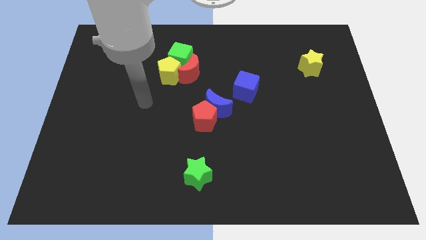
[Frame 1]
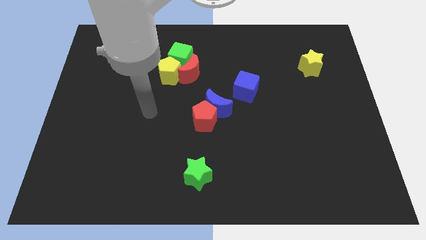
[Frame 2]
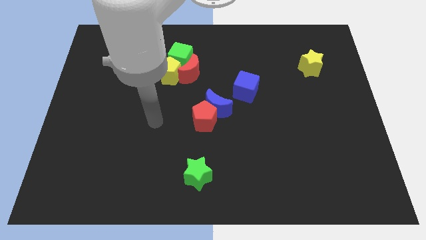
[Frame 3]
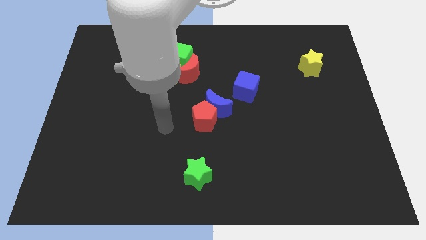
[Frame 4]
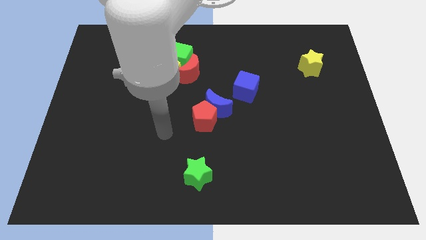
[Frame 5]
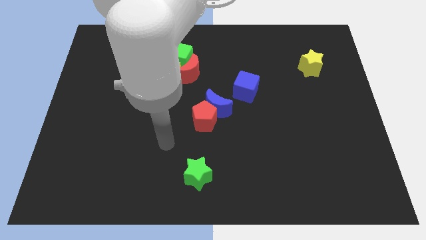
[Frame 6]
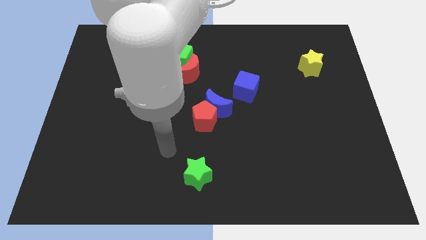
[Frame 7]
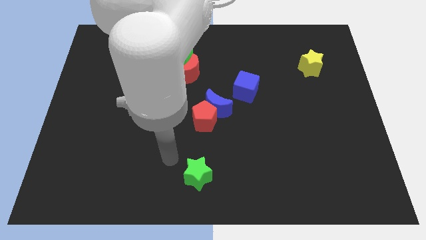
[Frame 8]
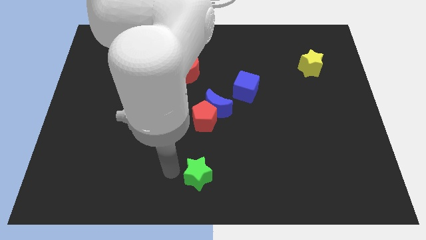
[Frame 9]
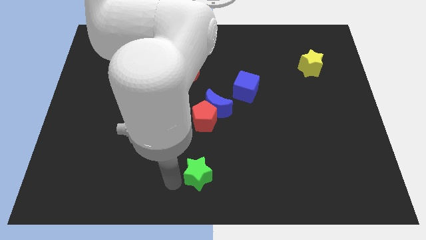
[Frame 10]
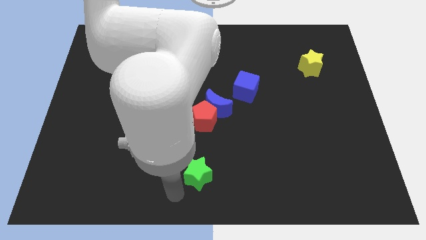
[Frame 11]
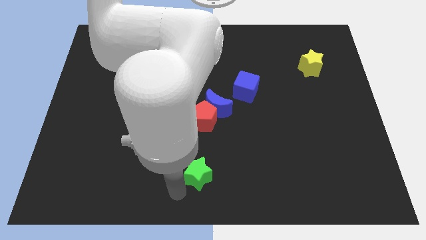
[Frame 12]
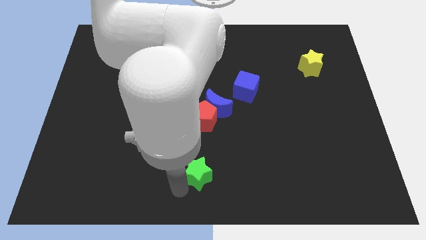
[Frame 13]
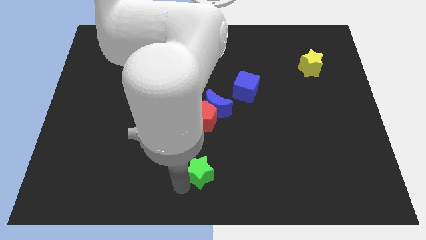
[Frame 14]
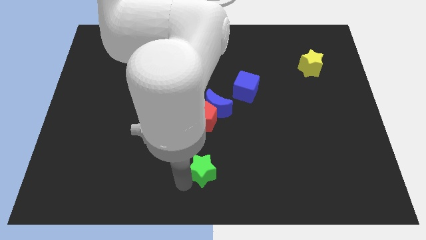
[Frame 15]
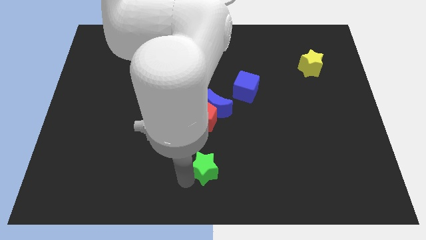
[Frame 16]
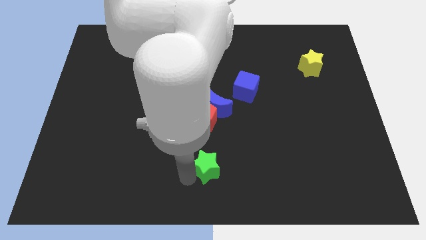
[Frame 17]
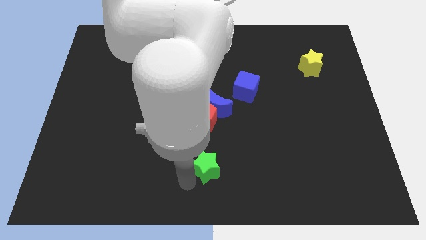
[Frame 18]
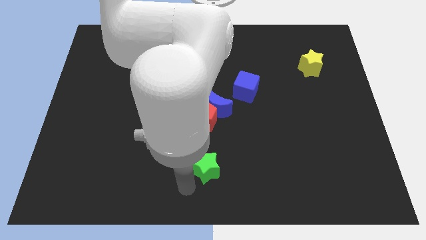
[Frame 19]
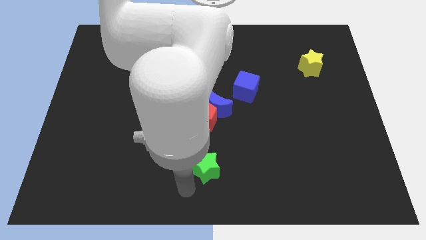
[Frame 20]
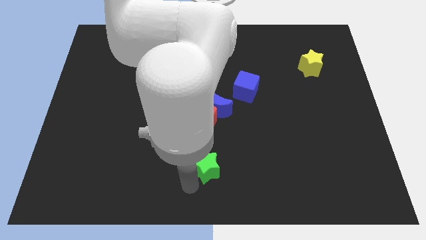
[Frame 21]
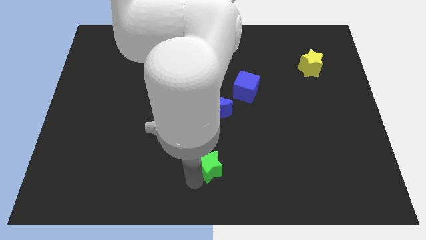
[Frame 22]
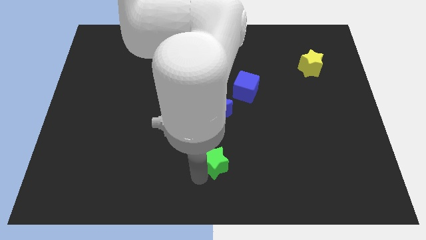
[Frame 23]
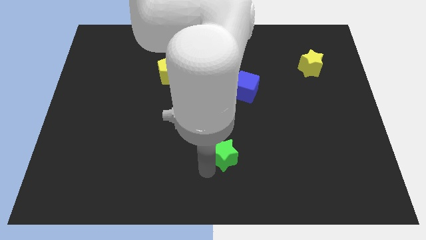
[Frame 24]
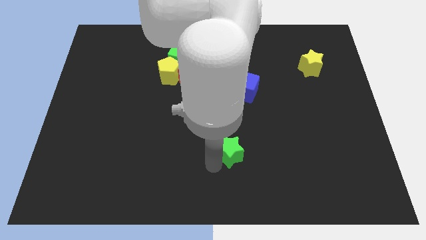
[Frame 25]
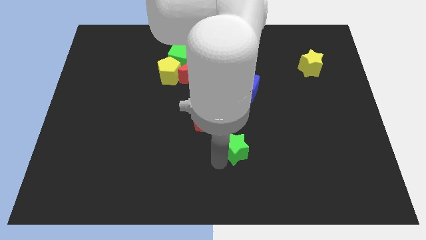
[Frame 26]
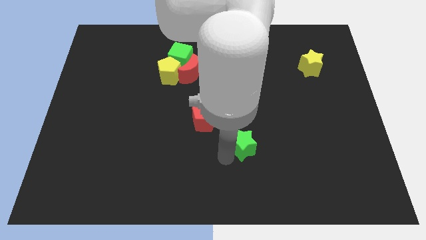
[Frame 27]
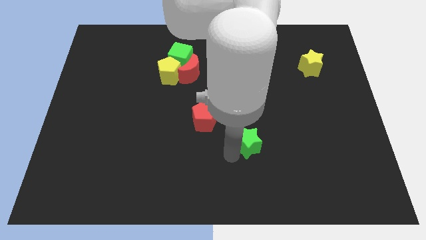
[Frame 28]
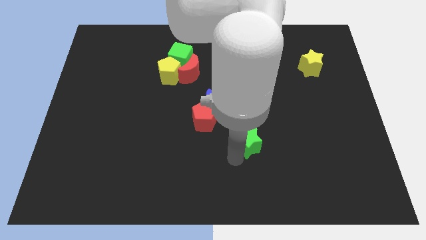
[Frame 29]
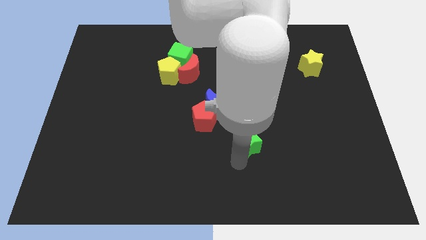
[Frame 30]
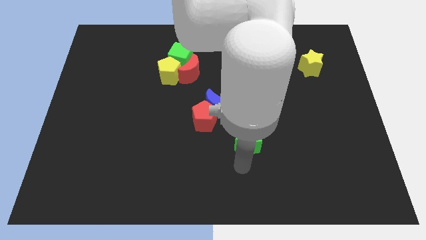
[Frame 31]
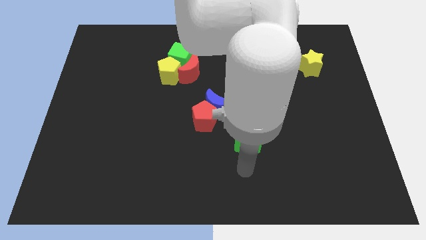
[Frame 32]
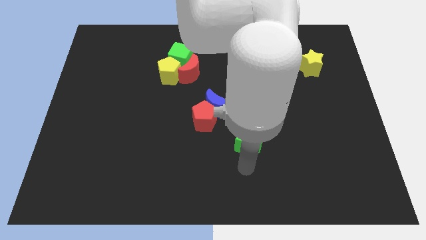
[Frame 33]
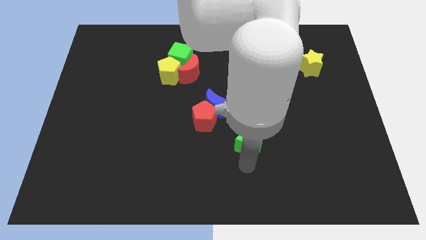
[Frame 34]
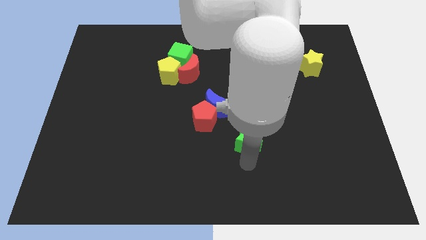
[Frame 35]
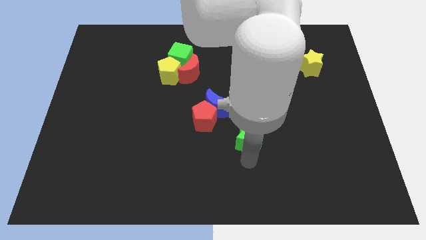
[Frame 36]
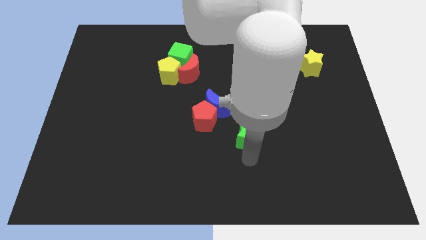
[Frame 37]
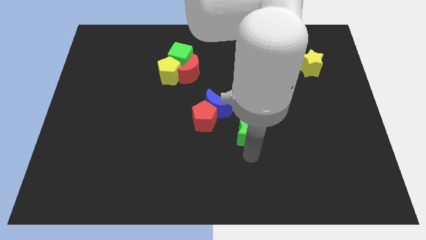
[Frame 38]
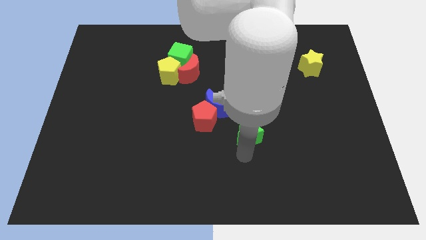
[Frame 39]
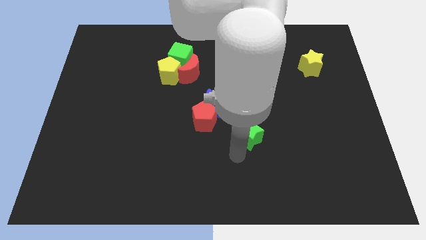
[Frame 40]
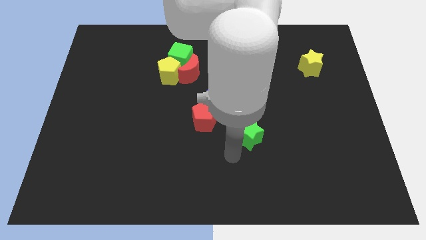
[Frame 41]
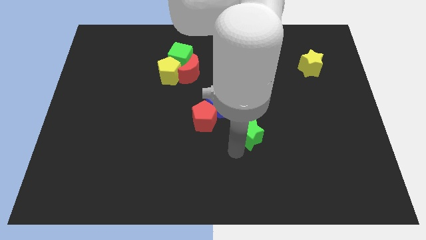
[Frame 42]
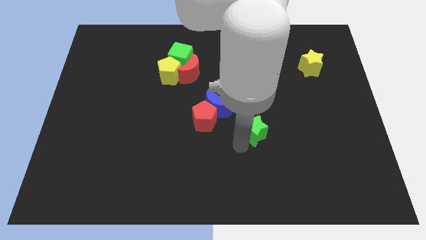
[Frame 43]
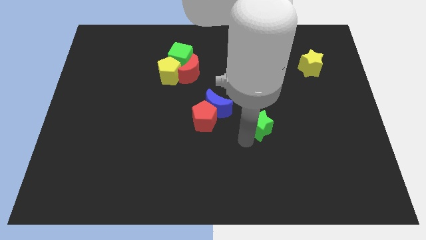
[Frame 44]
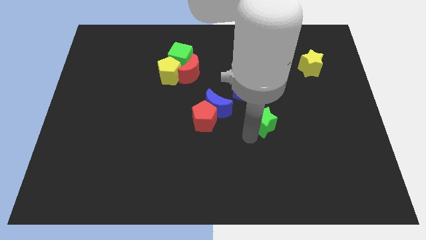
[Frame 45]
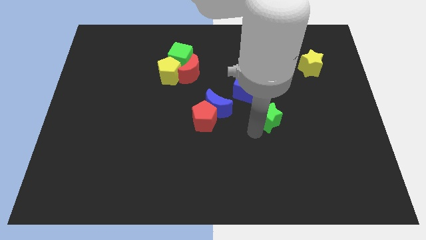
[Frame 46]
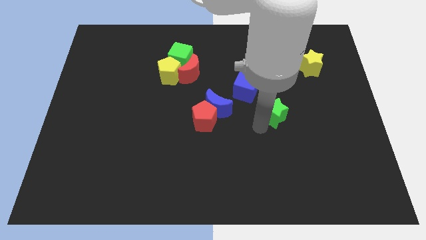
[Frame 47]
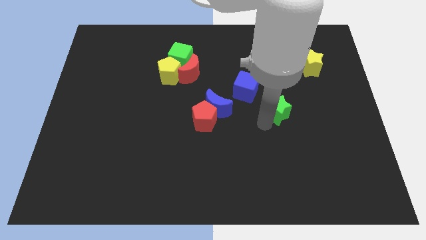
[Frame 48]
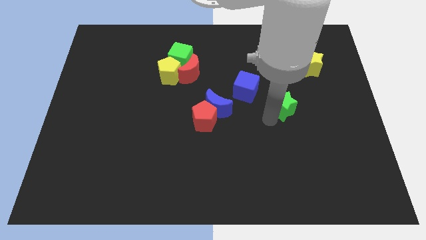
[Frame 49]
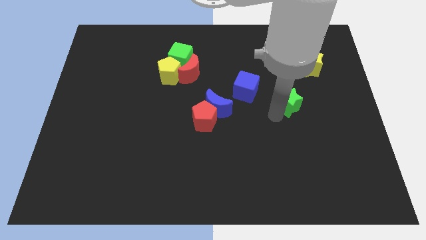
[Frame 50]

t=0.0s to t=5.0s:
slide the green star to the right side of the blue cube

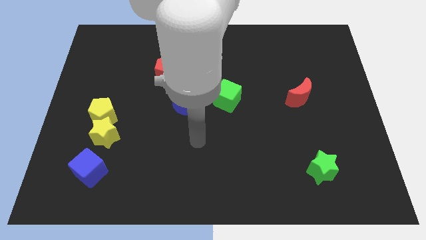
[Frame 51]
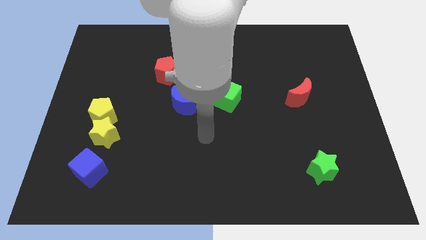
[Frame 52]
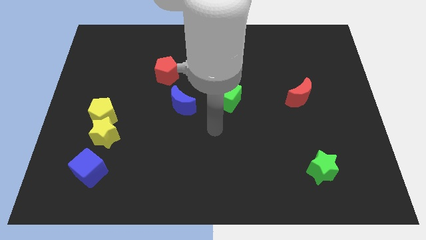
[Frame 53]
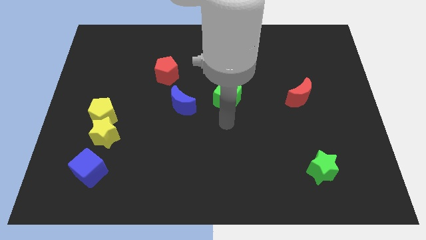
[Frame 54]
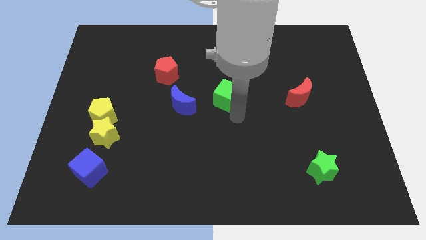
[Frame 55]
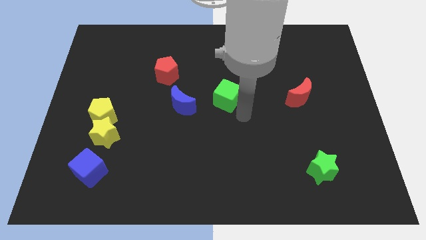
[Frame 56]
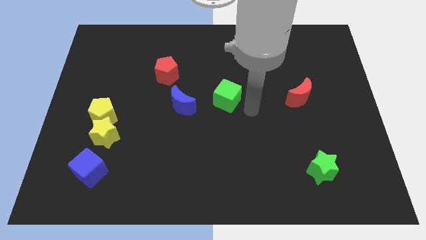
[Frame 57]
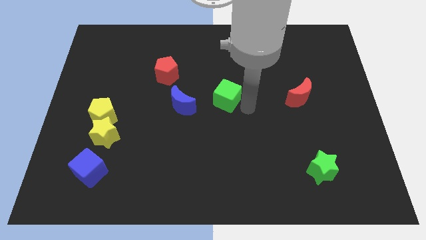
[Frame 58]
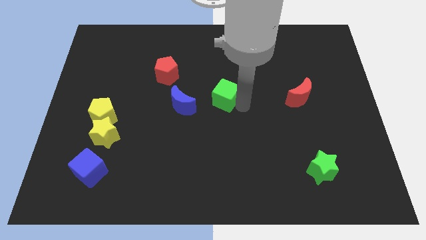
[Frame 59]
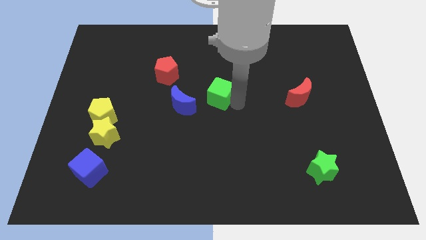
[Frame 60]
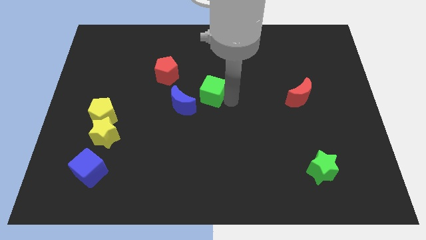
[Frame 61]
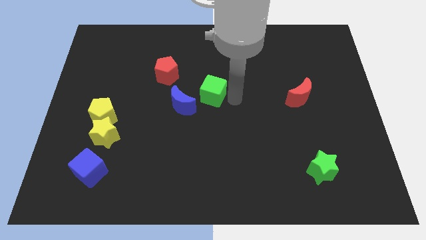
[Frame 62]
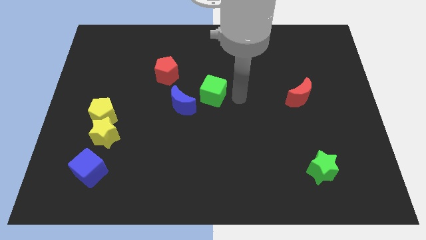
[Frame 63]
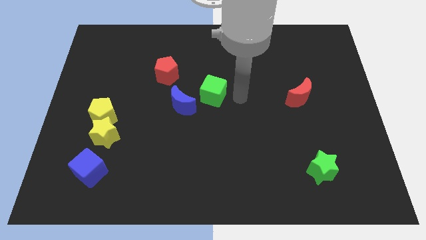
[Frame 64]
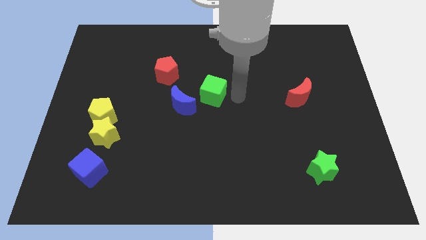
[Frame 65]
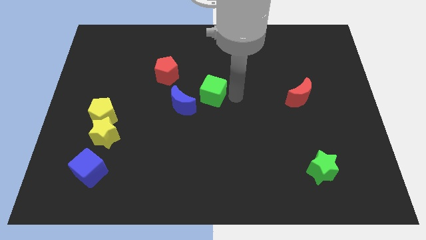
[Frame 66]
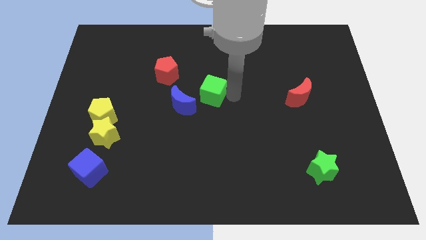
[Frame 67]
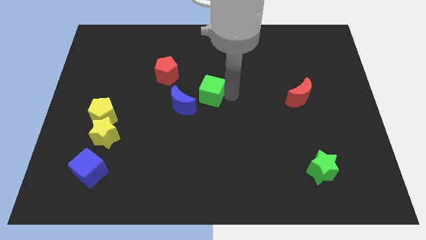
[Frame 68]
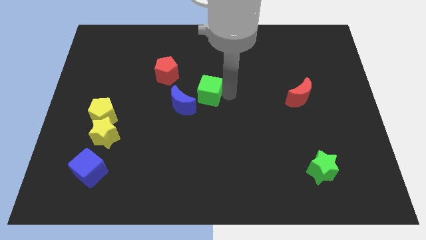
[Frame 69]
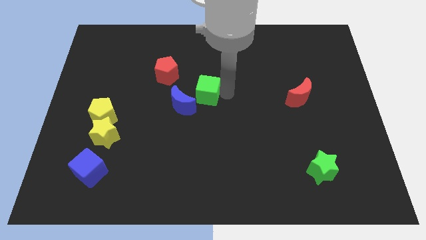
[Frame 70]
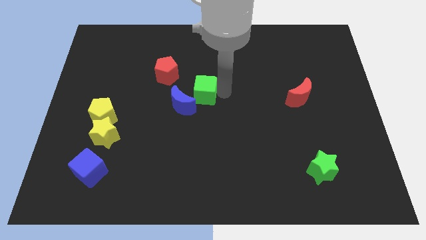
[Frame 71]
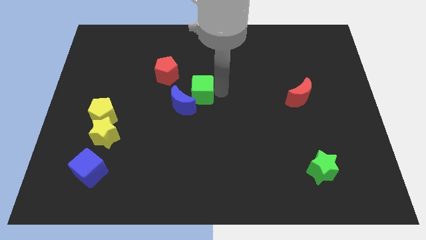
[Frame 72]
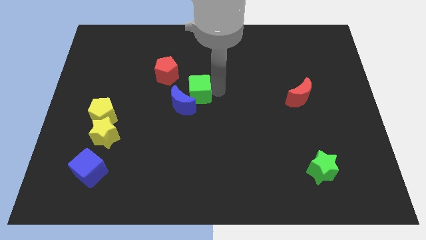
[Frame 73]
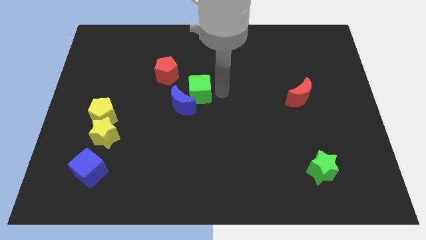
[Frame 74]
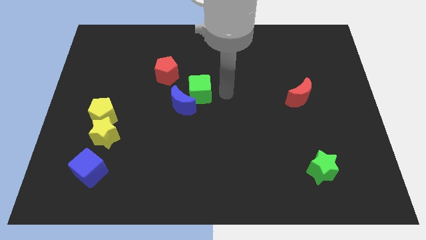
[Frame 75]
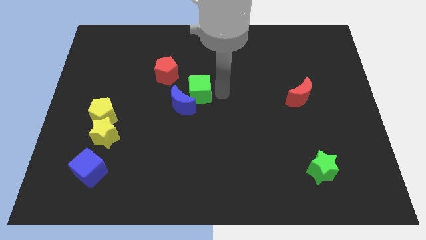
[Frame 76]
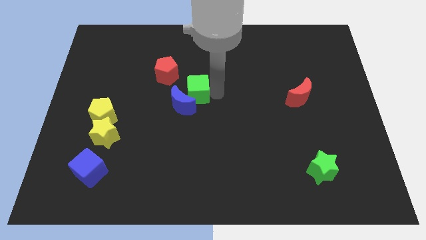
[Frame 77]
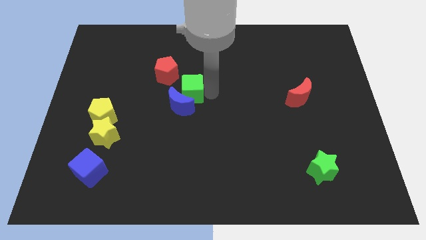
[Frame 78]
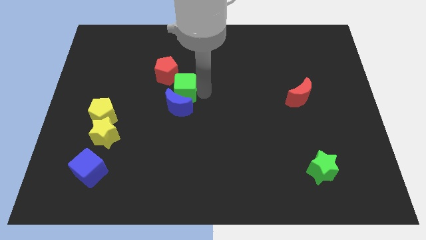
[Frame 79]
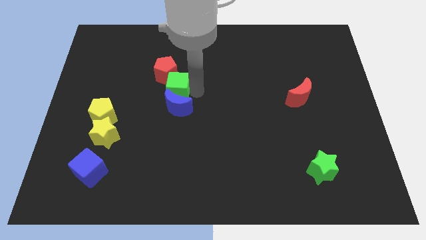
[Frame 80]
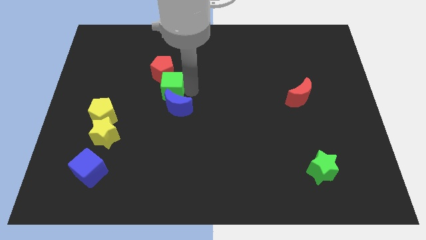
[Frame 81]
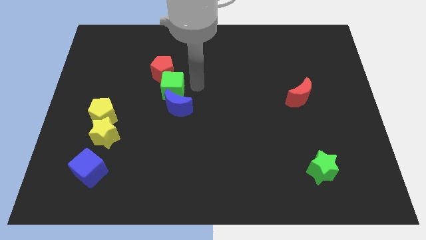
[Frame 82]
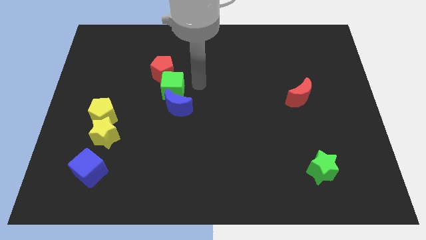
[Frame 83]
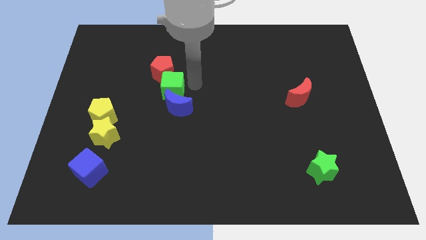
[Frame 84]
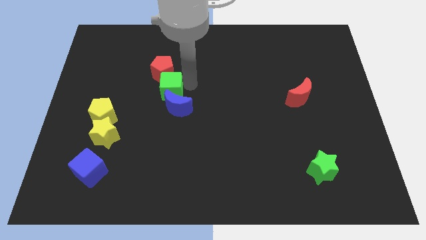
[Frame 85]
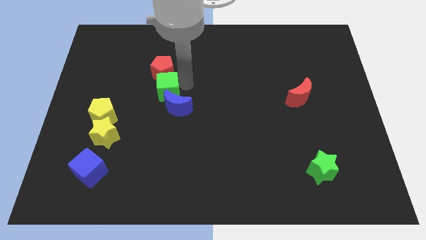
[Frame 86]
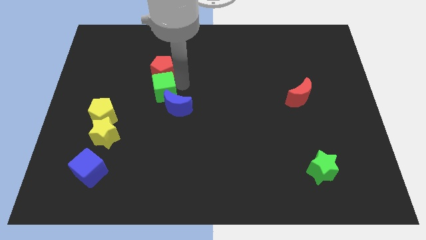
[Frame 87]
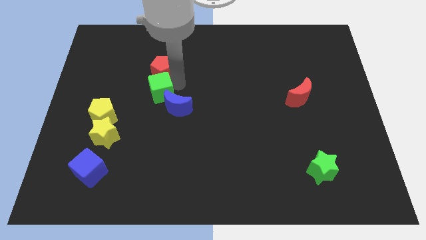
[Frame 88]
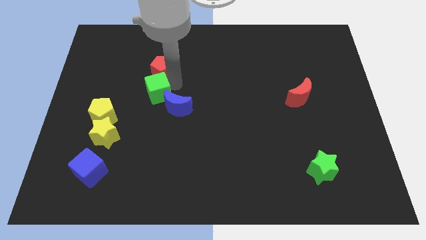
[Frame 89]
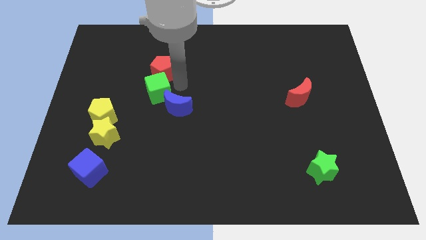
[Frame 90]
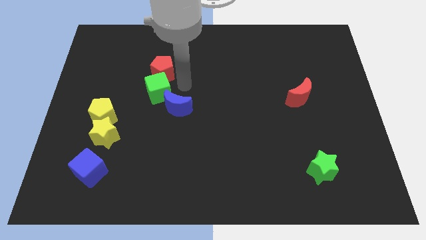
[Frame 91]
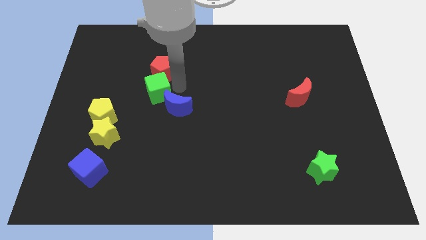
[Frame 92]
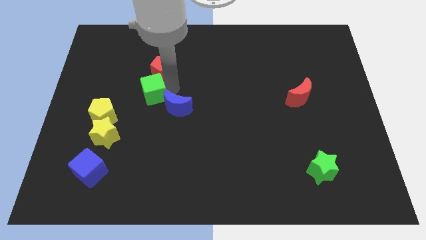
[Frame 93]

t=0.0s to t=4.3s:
push the green cube to the top right of the yellow pentagon
